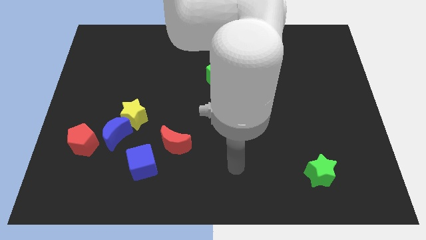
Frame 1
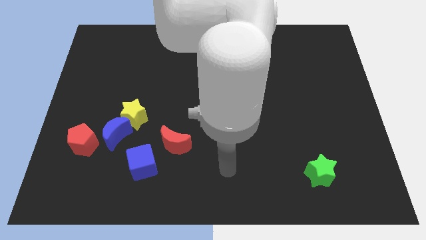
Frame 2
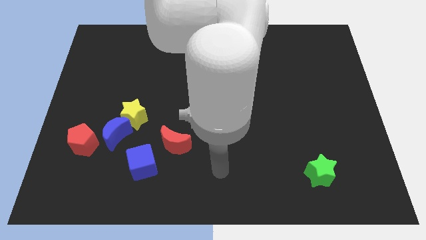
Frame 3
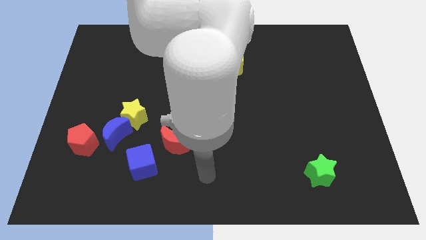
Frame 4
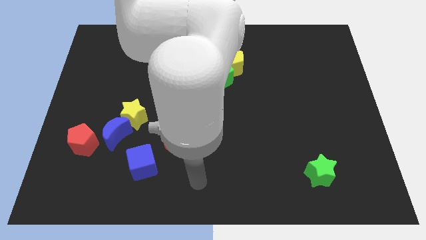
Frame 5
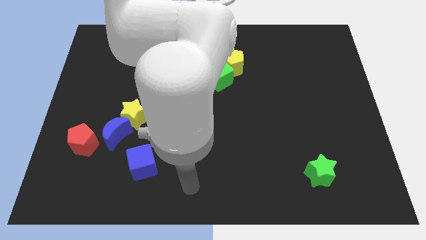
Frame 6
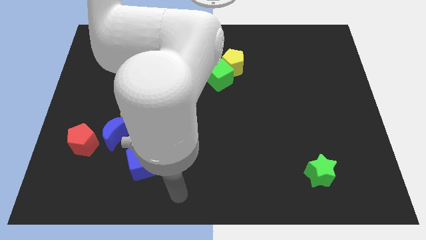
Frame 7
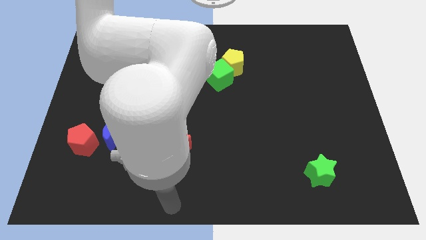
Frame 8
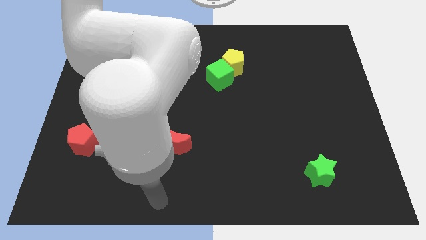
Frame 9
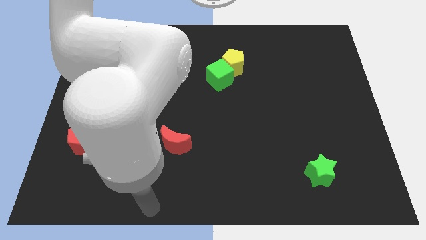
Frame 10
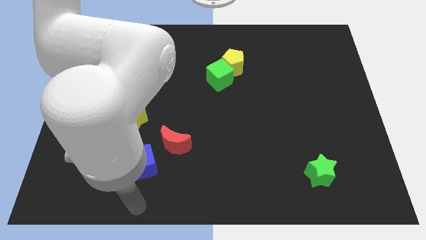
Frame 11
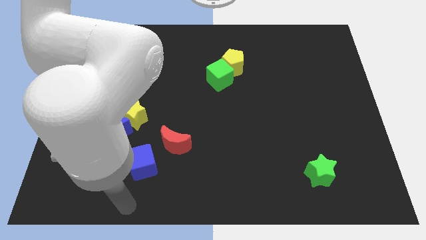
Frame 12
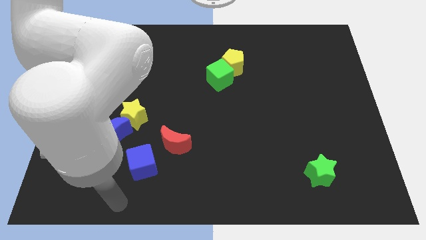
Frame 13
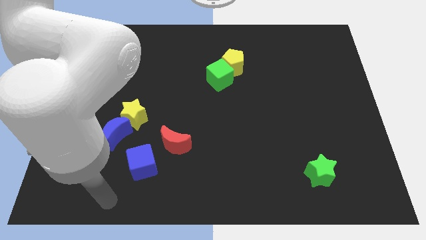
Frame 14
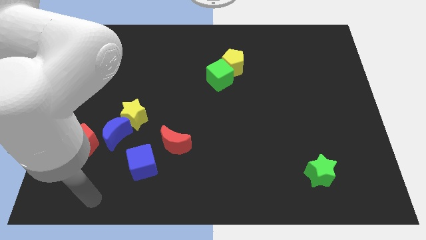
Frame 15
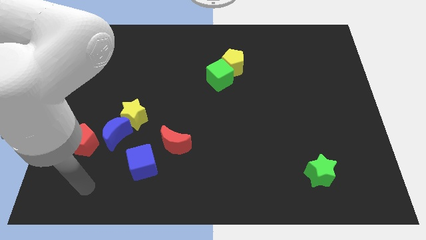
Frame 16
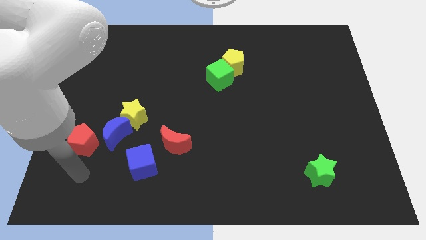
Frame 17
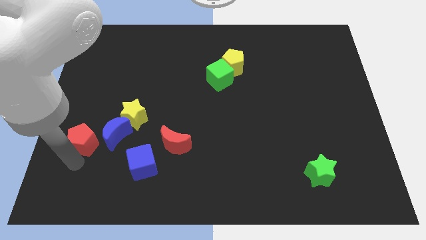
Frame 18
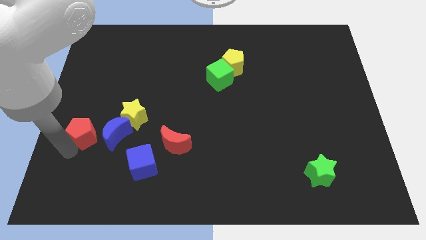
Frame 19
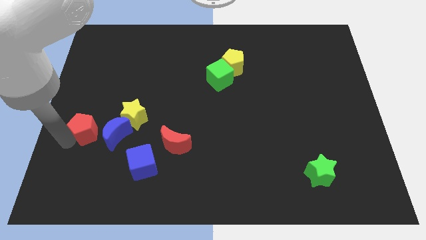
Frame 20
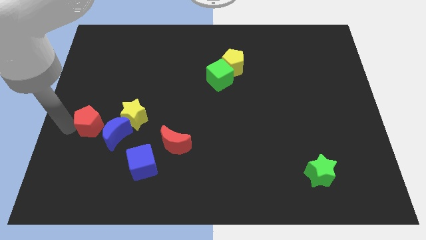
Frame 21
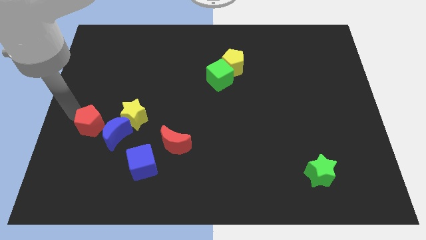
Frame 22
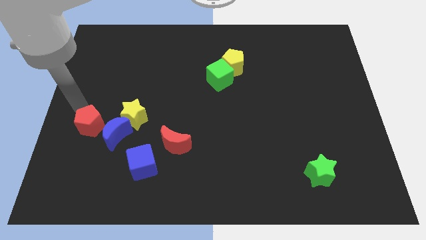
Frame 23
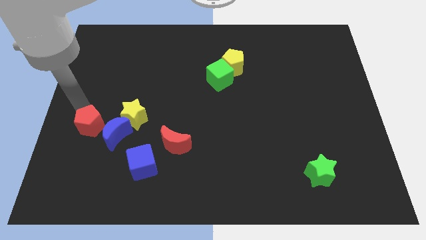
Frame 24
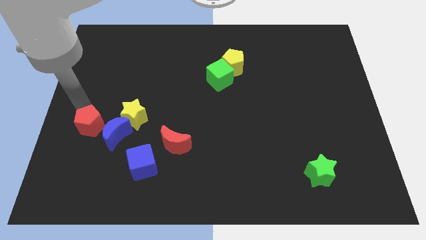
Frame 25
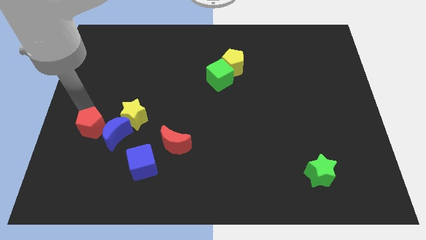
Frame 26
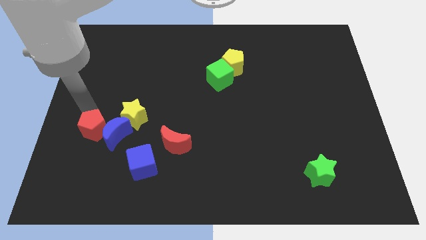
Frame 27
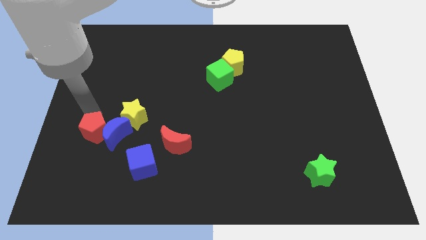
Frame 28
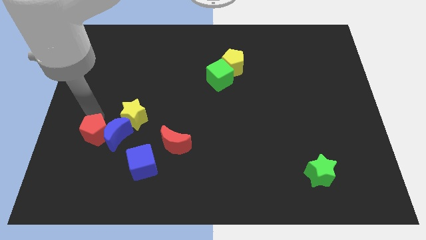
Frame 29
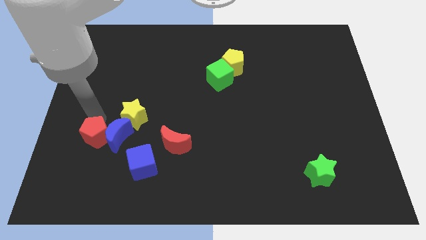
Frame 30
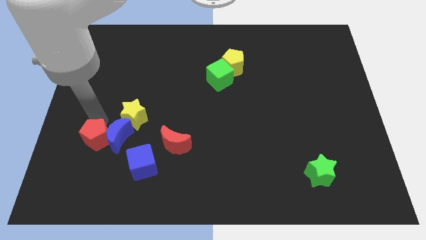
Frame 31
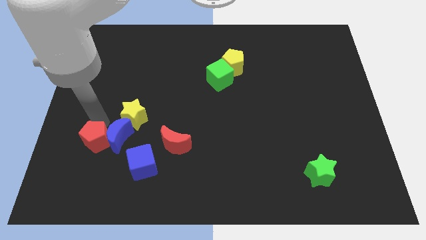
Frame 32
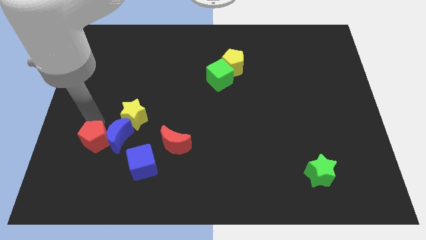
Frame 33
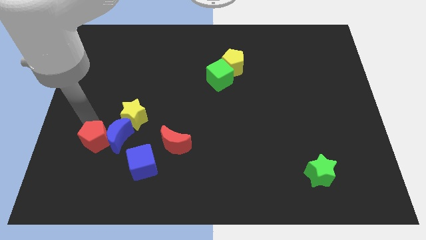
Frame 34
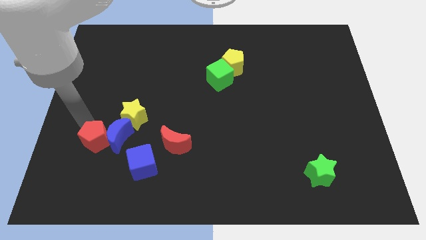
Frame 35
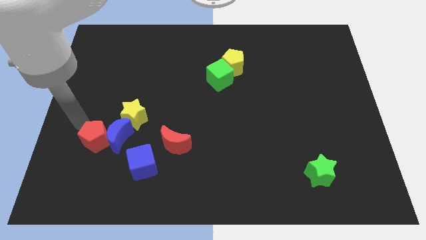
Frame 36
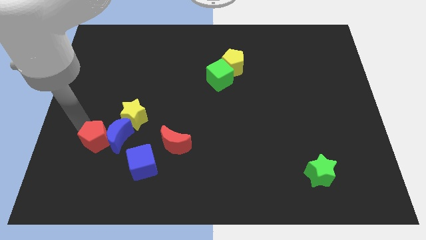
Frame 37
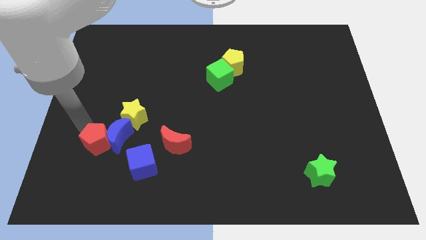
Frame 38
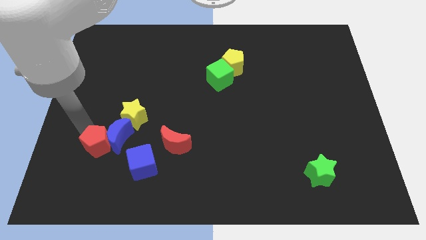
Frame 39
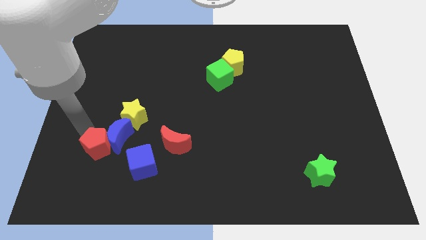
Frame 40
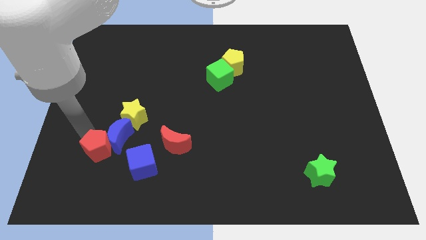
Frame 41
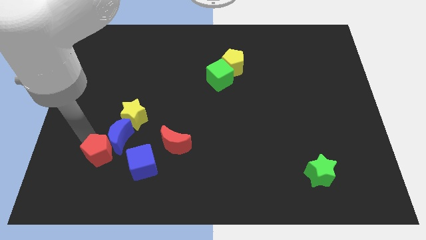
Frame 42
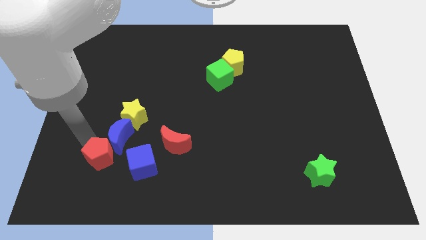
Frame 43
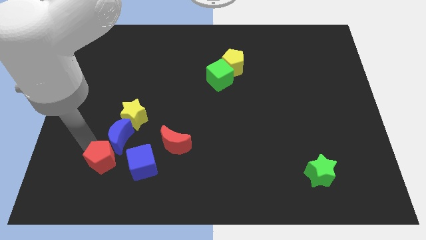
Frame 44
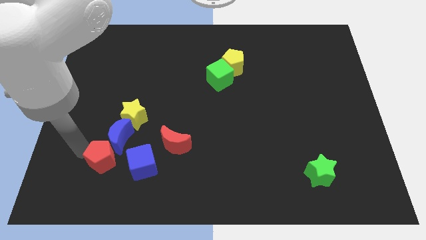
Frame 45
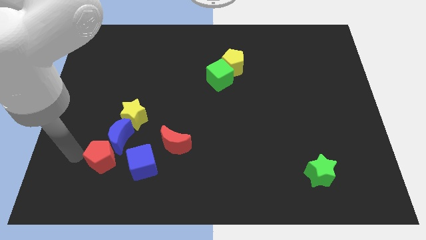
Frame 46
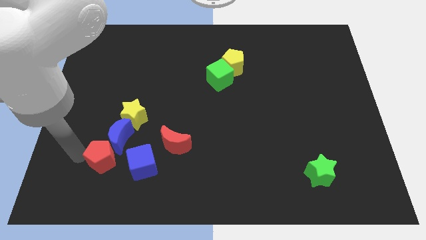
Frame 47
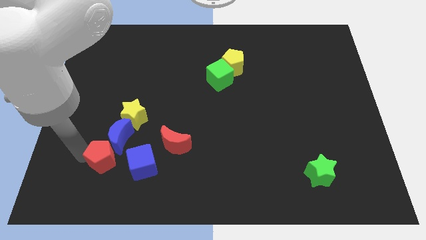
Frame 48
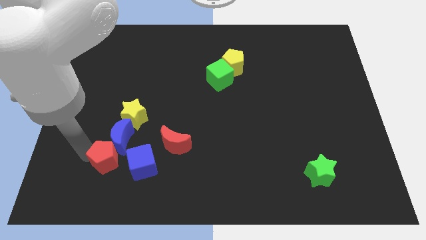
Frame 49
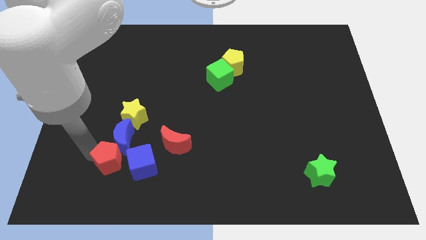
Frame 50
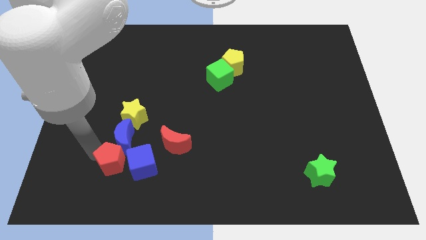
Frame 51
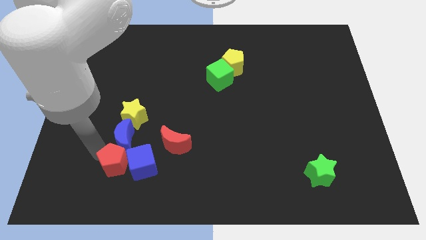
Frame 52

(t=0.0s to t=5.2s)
slide the red pentagon to the blue cube

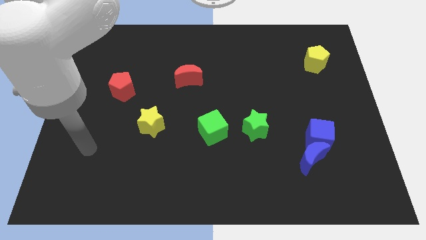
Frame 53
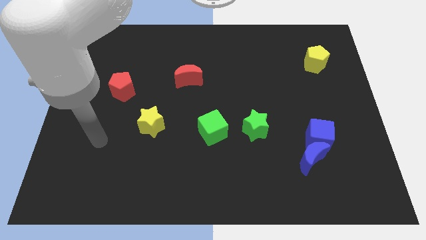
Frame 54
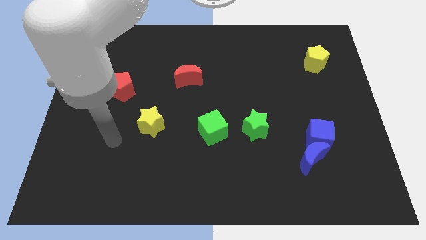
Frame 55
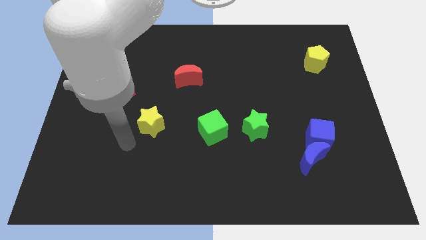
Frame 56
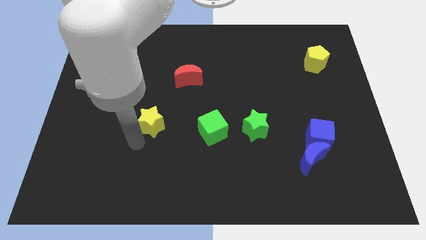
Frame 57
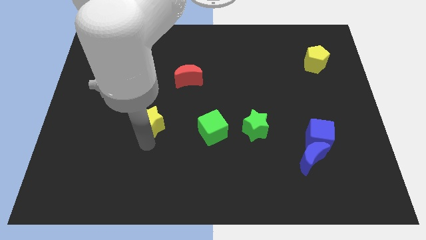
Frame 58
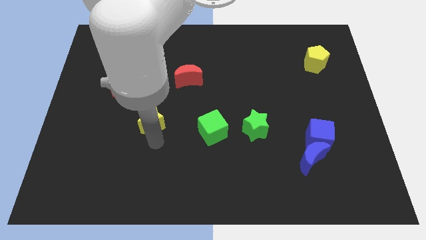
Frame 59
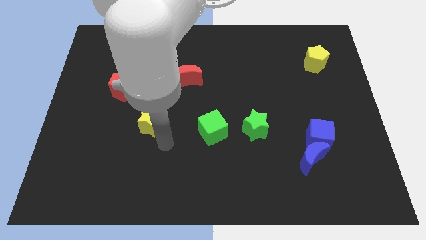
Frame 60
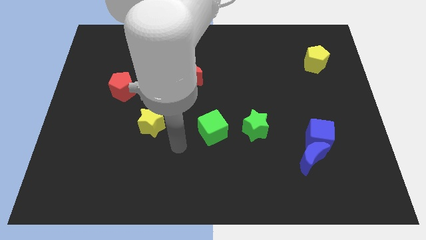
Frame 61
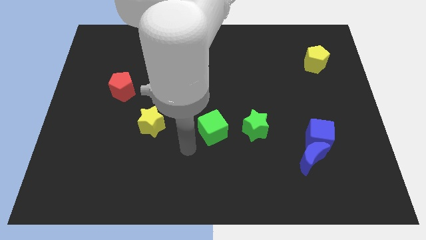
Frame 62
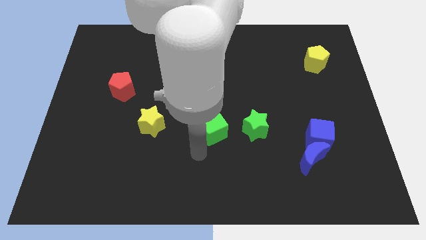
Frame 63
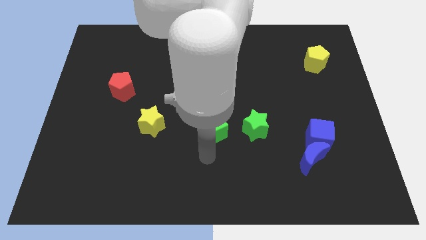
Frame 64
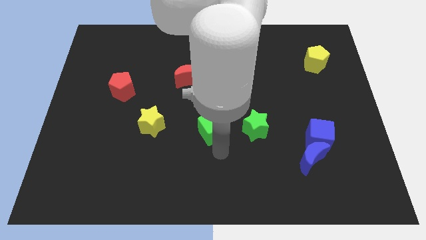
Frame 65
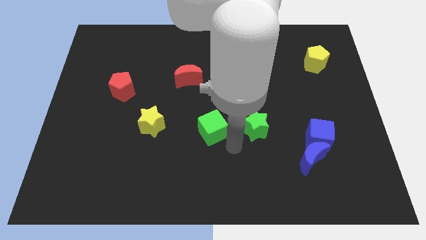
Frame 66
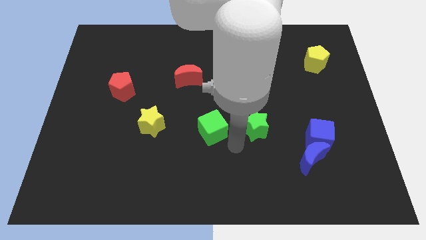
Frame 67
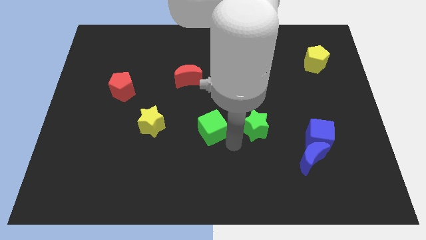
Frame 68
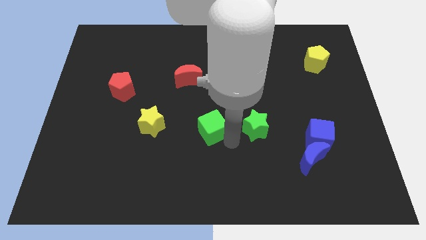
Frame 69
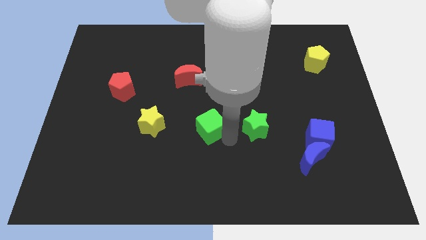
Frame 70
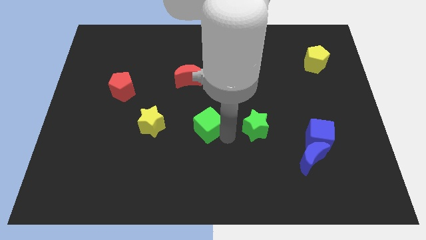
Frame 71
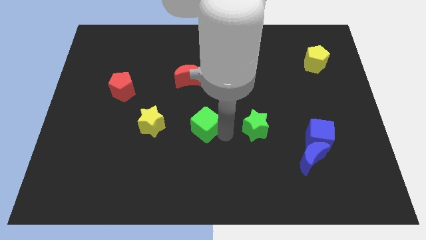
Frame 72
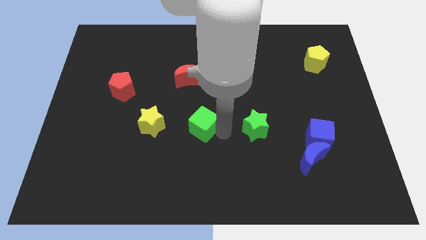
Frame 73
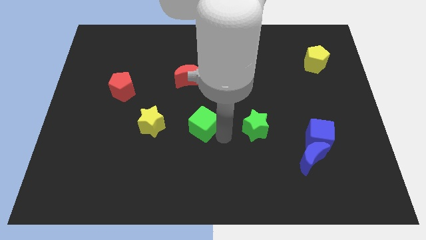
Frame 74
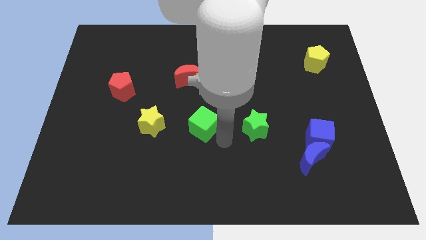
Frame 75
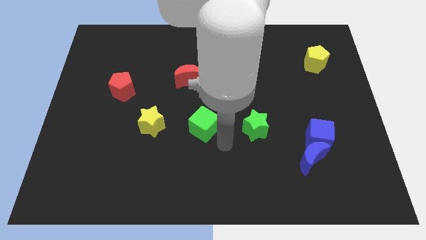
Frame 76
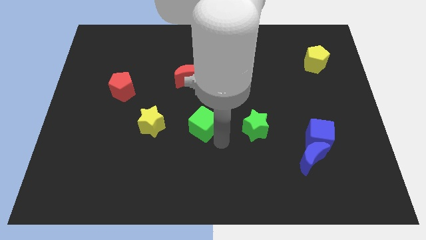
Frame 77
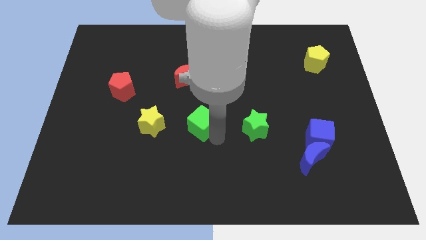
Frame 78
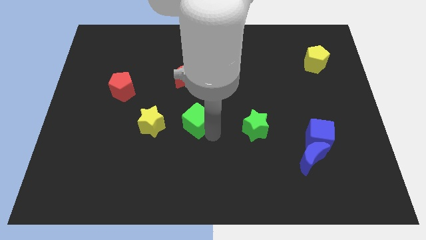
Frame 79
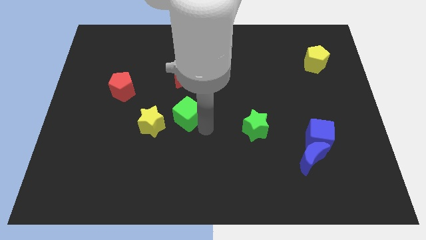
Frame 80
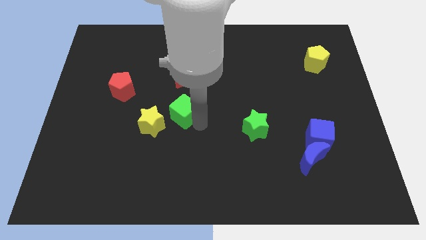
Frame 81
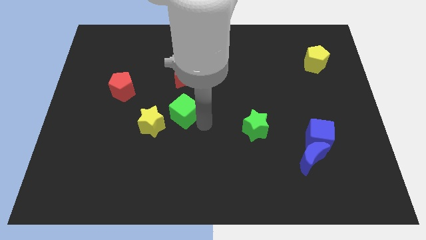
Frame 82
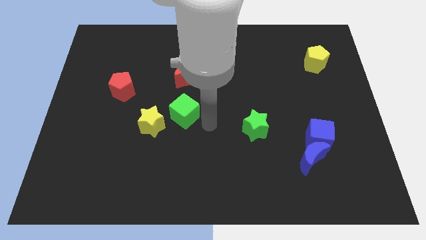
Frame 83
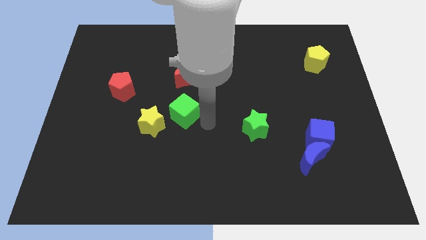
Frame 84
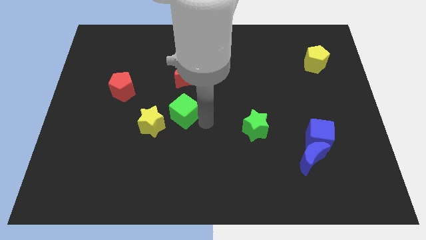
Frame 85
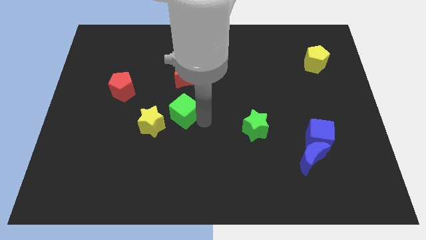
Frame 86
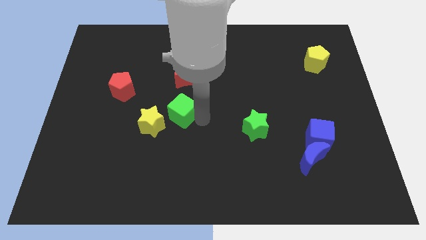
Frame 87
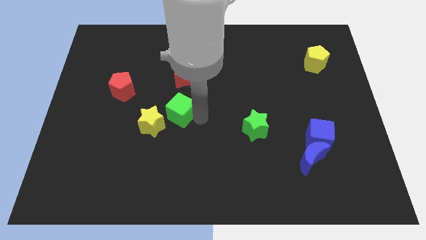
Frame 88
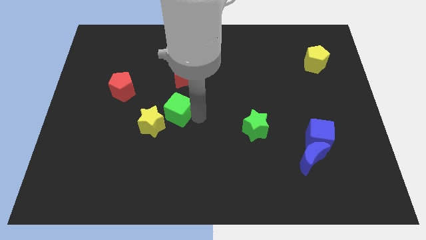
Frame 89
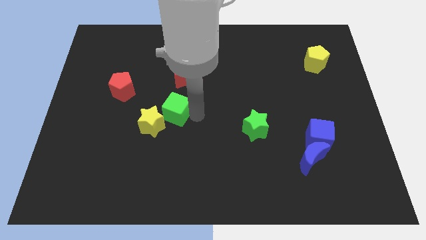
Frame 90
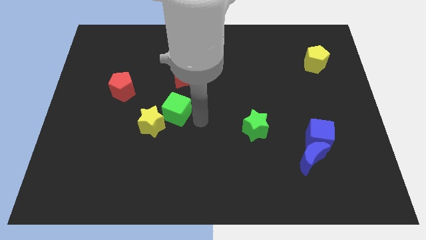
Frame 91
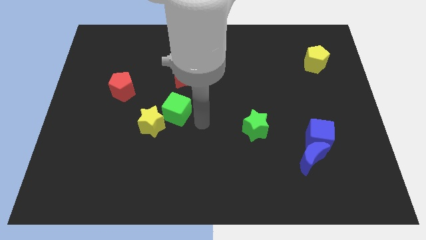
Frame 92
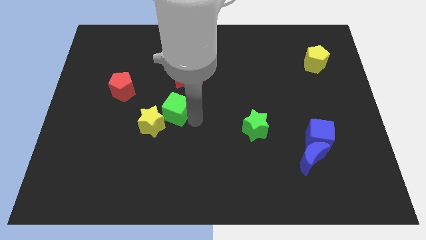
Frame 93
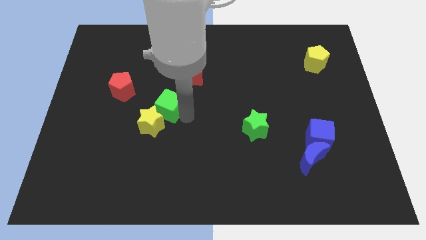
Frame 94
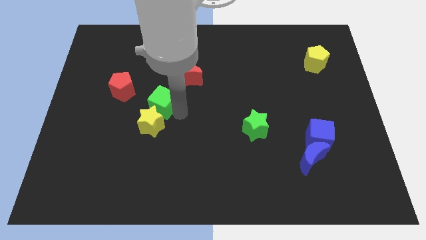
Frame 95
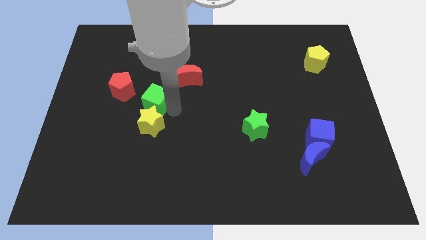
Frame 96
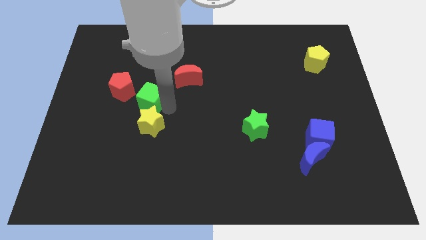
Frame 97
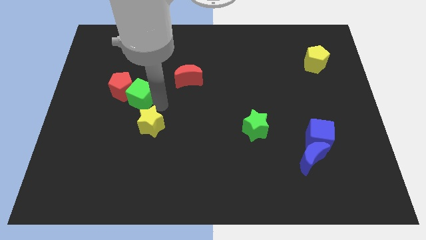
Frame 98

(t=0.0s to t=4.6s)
move the green cube towards the red pentagon
